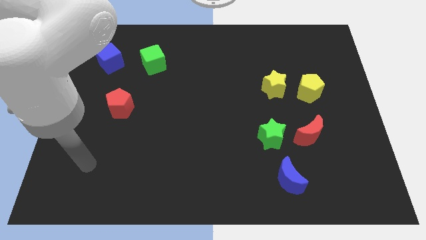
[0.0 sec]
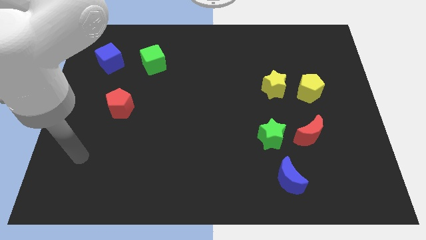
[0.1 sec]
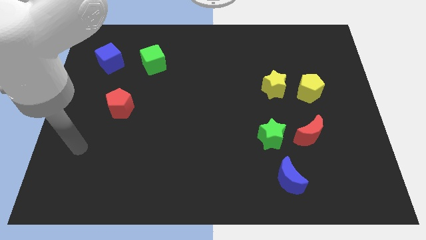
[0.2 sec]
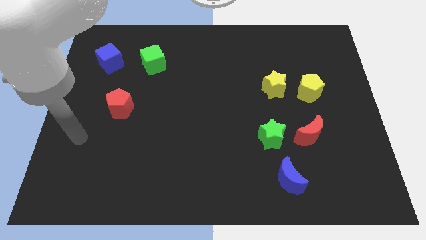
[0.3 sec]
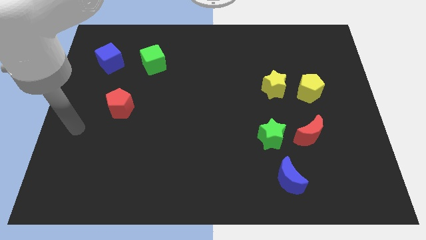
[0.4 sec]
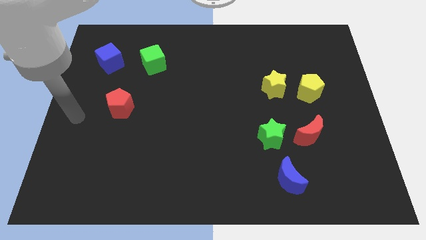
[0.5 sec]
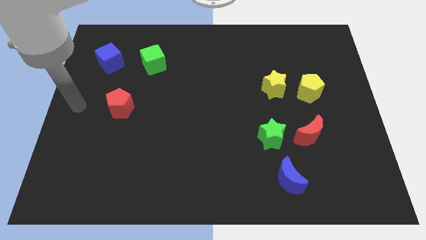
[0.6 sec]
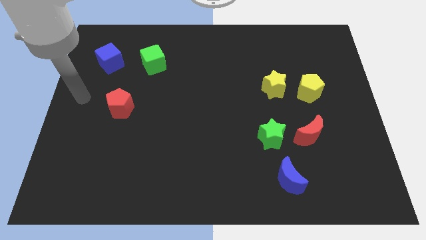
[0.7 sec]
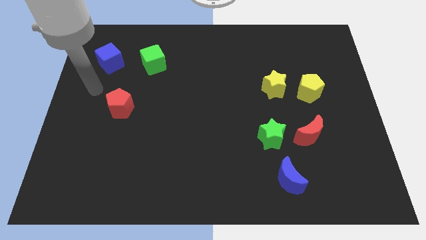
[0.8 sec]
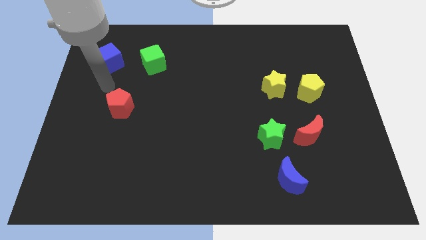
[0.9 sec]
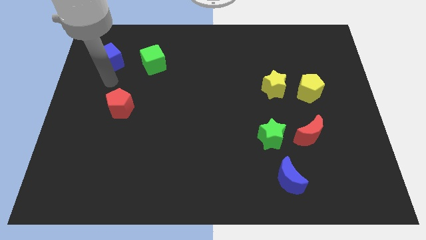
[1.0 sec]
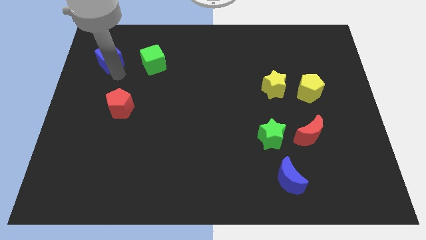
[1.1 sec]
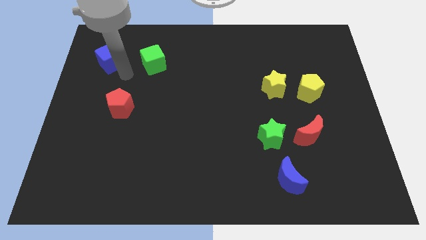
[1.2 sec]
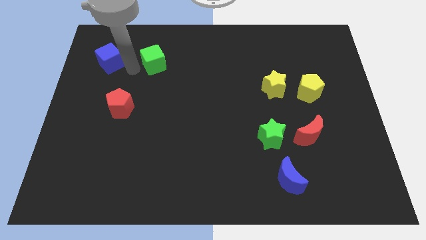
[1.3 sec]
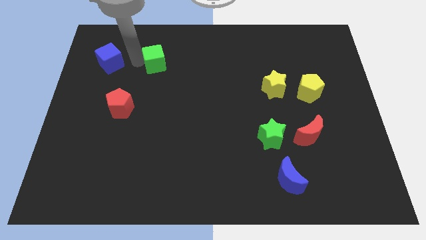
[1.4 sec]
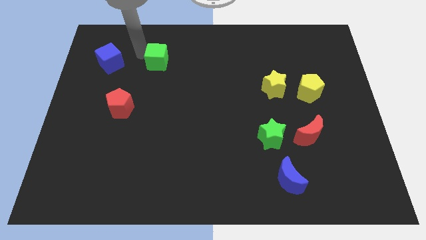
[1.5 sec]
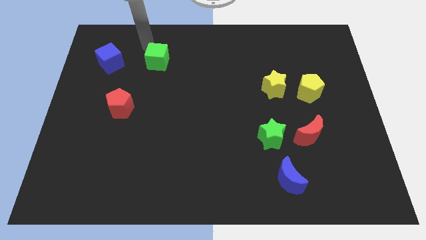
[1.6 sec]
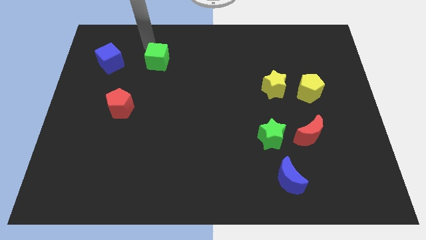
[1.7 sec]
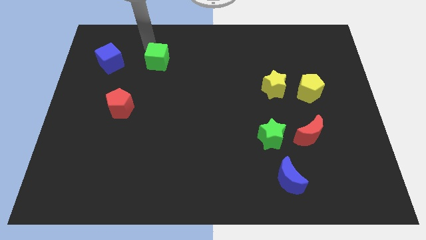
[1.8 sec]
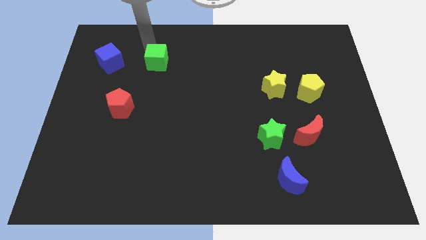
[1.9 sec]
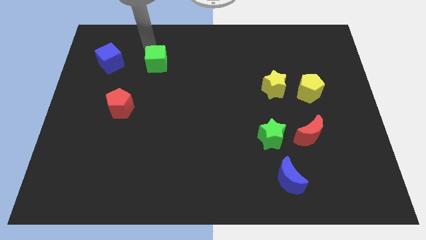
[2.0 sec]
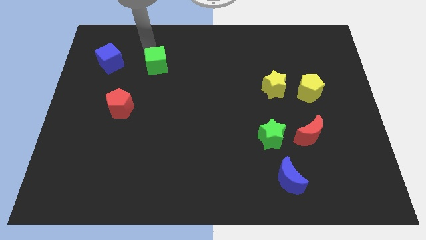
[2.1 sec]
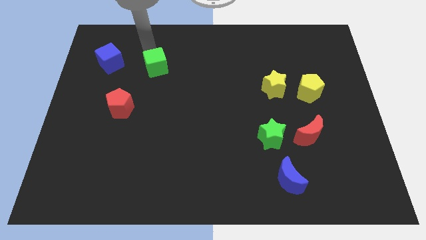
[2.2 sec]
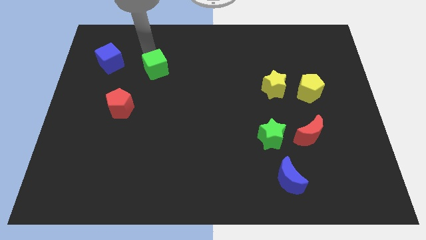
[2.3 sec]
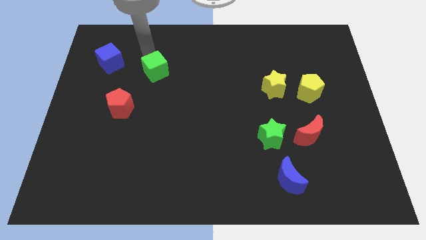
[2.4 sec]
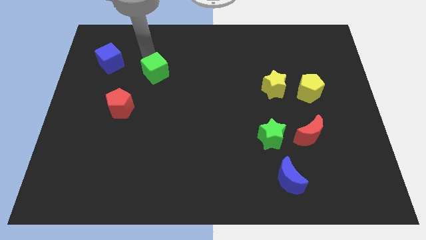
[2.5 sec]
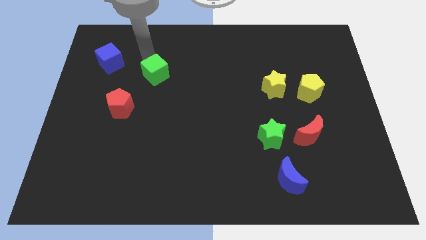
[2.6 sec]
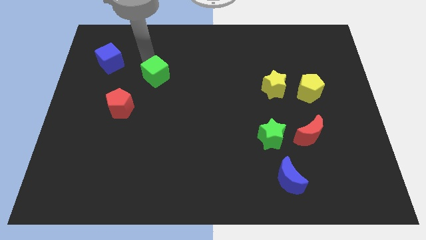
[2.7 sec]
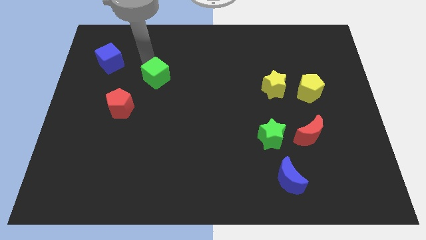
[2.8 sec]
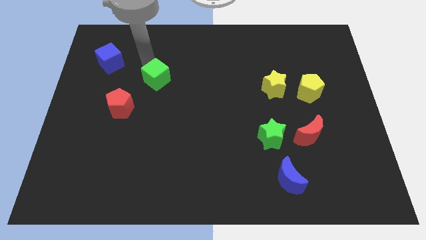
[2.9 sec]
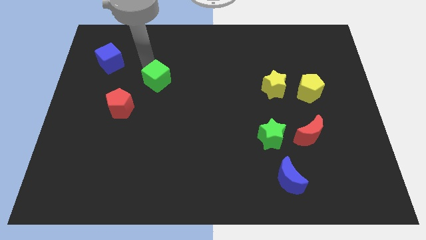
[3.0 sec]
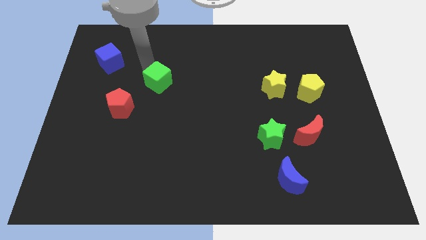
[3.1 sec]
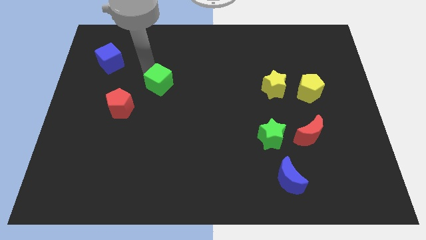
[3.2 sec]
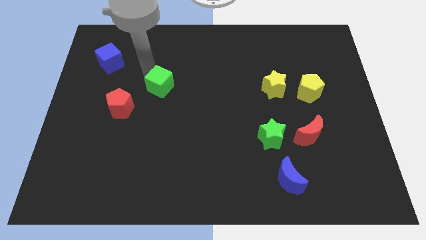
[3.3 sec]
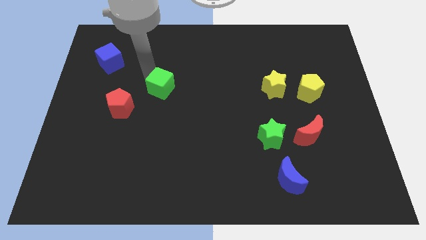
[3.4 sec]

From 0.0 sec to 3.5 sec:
move the green cube down and to the right slightly

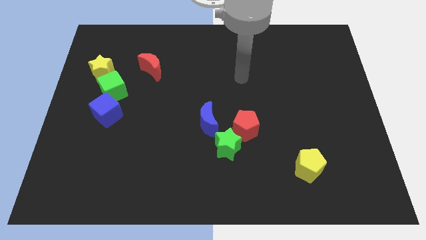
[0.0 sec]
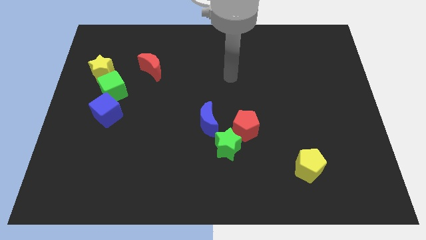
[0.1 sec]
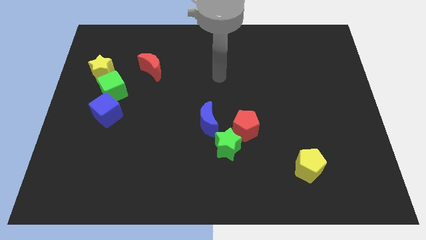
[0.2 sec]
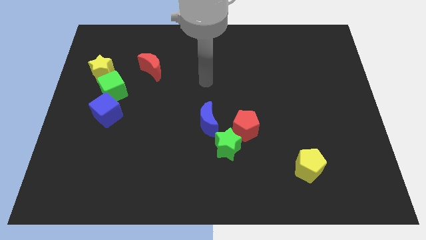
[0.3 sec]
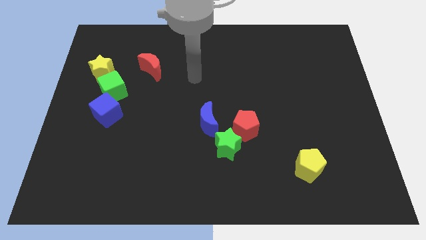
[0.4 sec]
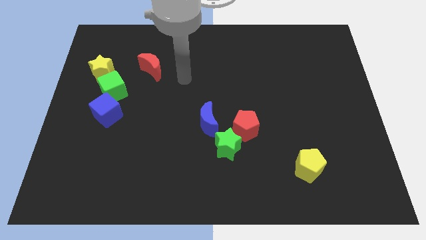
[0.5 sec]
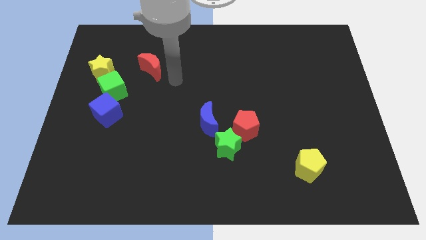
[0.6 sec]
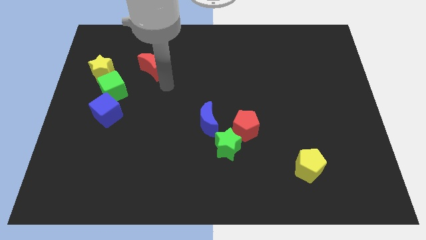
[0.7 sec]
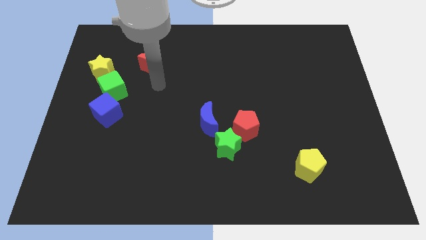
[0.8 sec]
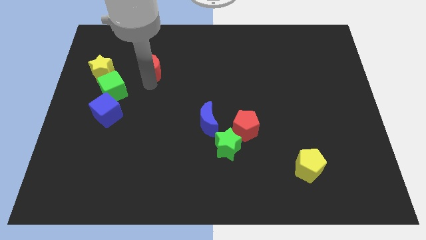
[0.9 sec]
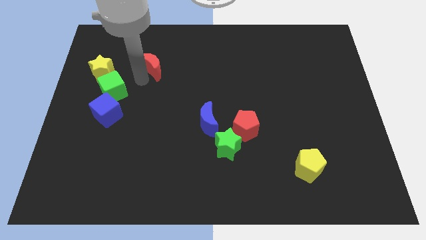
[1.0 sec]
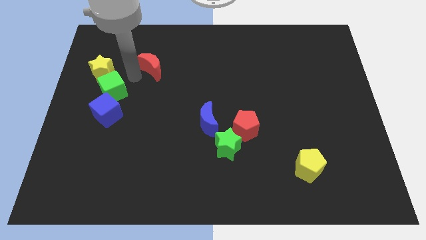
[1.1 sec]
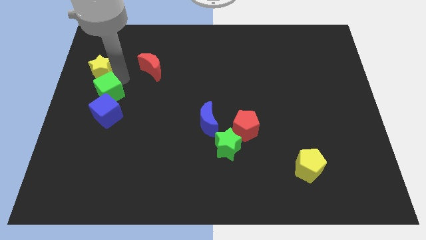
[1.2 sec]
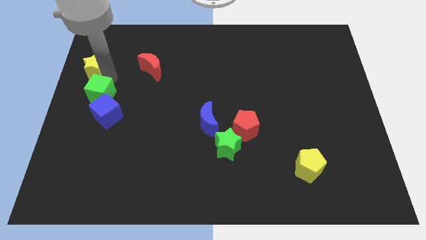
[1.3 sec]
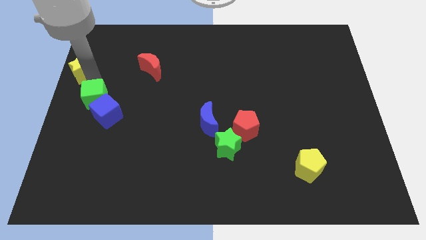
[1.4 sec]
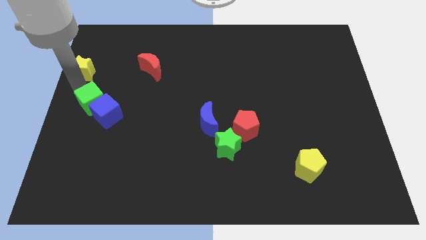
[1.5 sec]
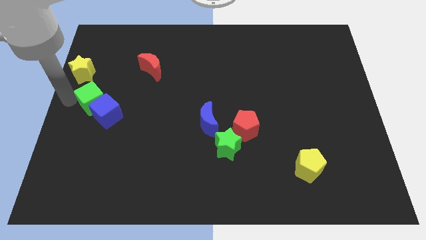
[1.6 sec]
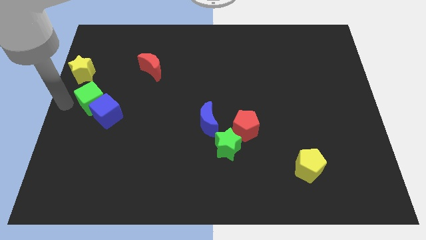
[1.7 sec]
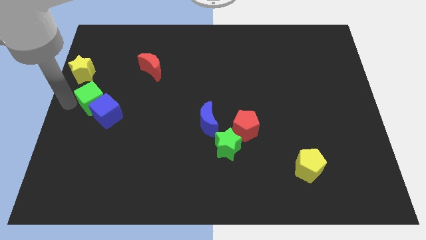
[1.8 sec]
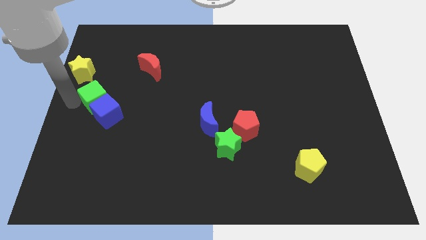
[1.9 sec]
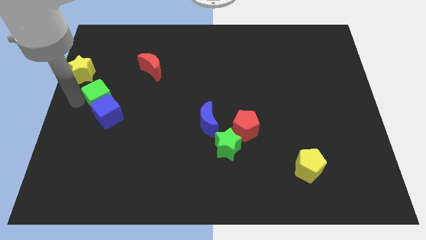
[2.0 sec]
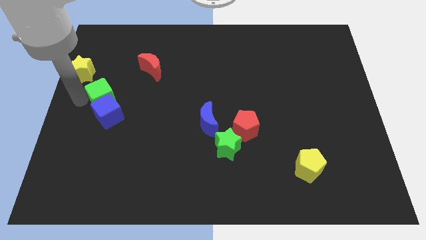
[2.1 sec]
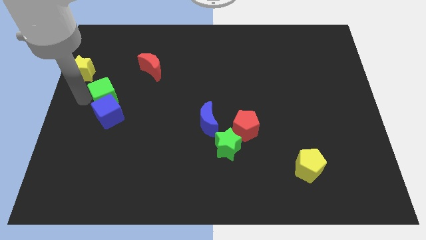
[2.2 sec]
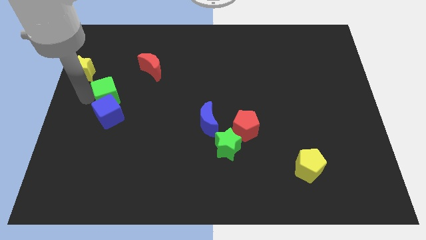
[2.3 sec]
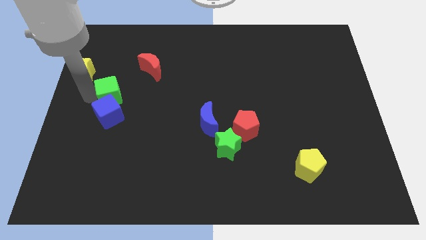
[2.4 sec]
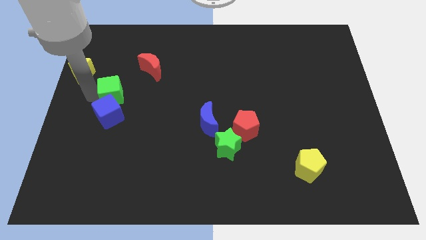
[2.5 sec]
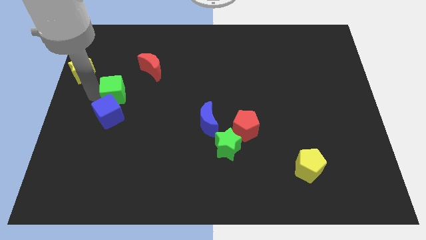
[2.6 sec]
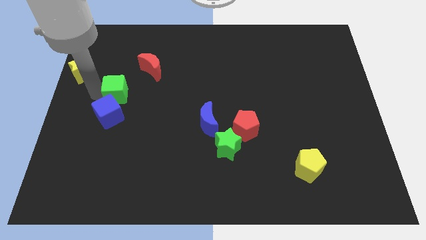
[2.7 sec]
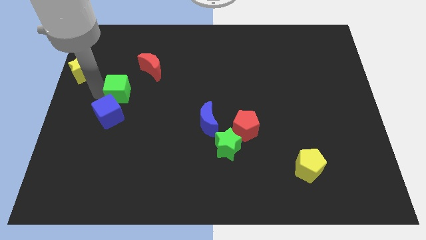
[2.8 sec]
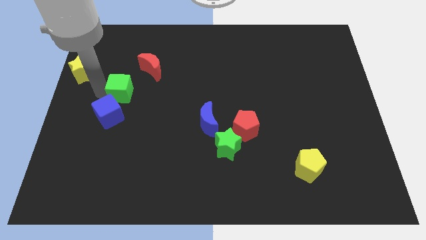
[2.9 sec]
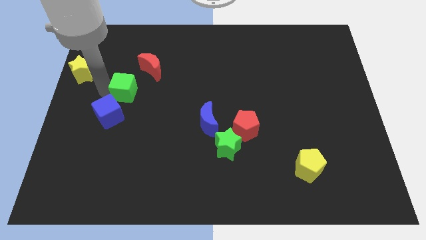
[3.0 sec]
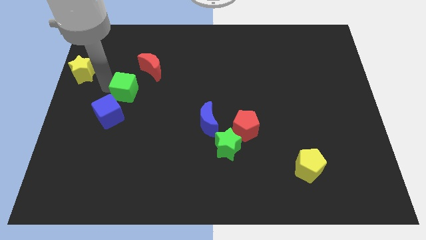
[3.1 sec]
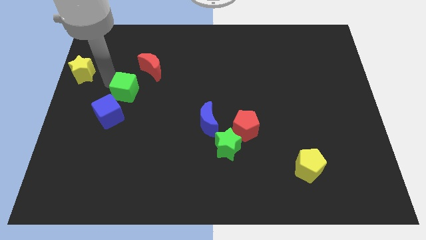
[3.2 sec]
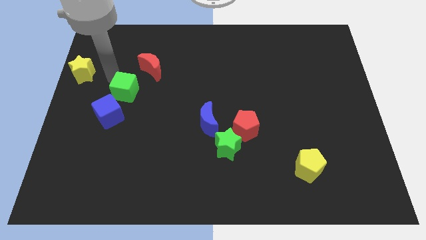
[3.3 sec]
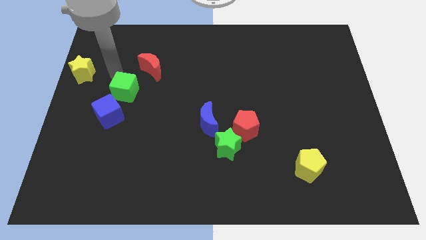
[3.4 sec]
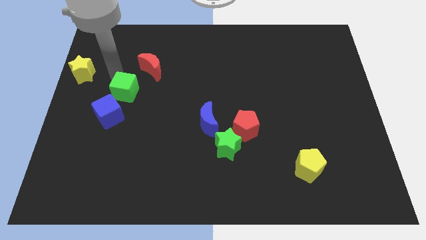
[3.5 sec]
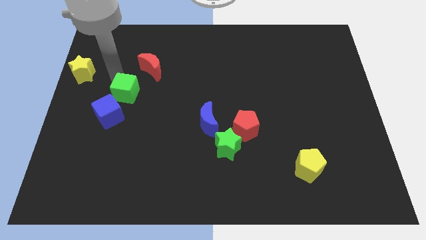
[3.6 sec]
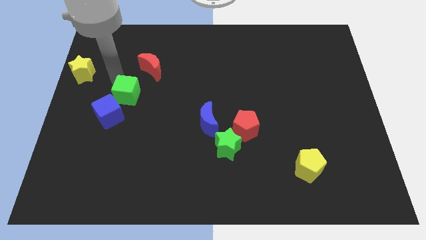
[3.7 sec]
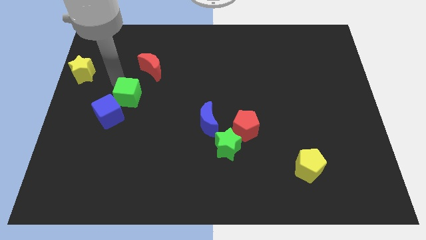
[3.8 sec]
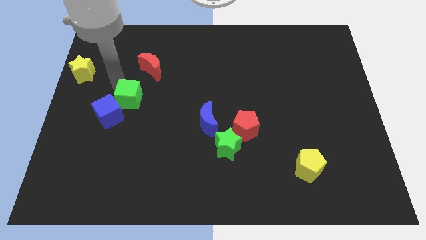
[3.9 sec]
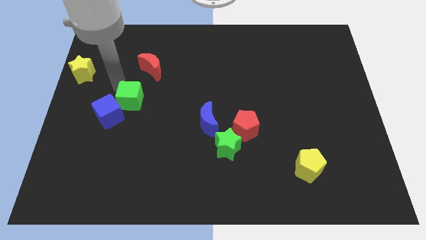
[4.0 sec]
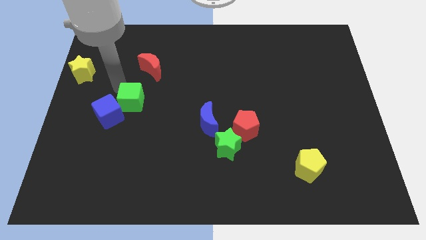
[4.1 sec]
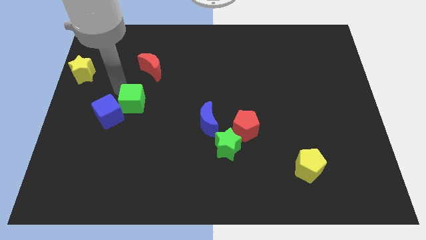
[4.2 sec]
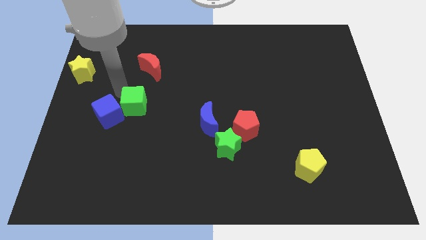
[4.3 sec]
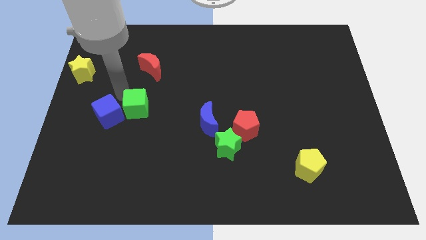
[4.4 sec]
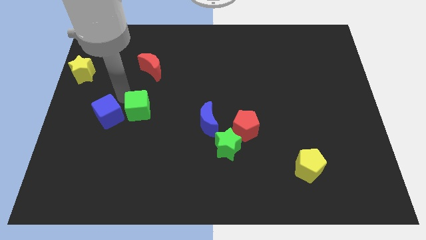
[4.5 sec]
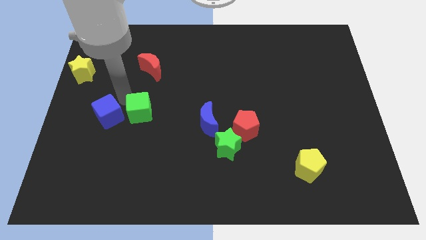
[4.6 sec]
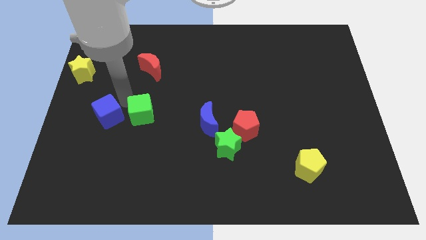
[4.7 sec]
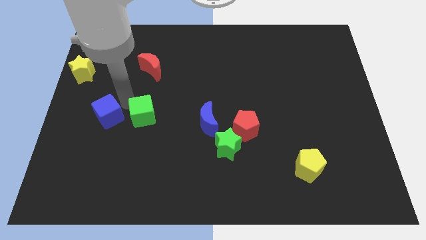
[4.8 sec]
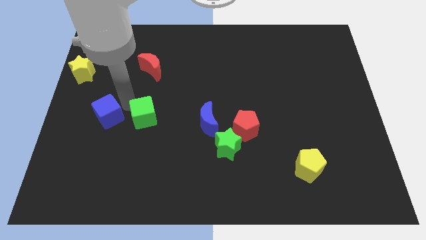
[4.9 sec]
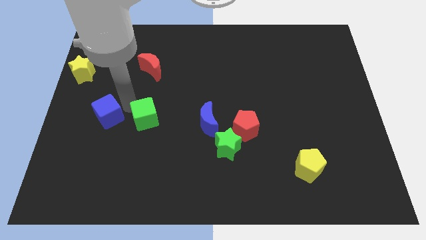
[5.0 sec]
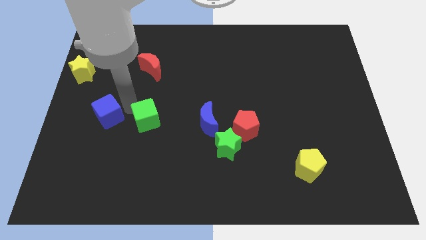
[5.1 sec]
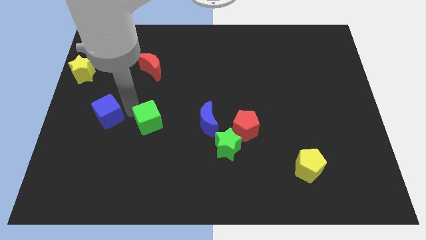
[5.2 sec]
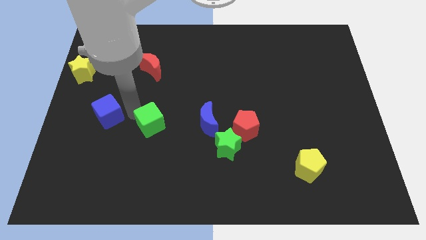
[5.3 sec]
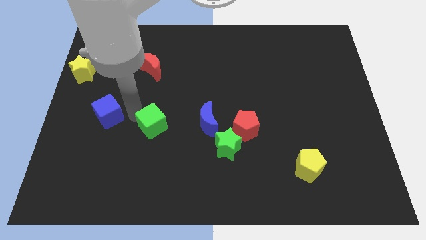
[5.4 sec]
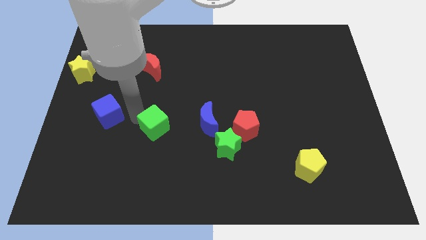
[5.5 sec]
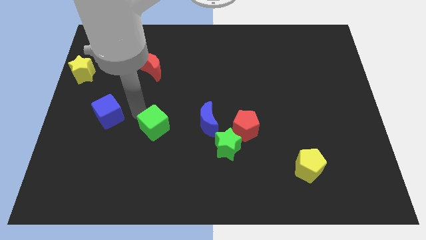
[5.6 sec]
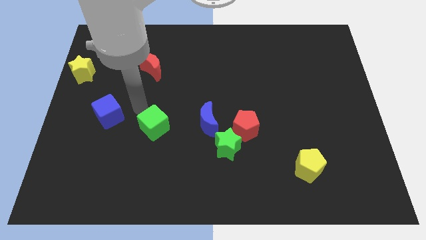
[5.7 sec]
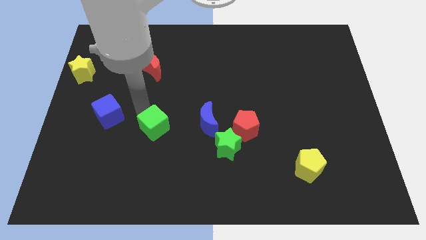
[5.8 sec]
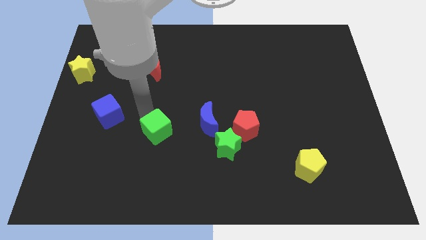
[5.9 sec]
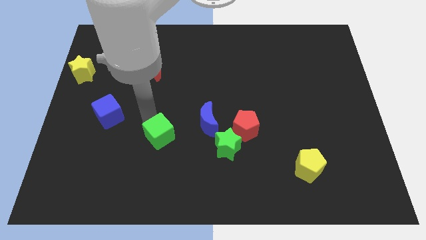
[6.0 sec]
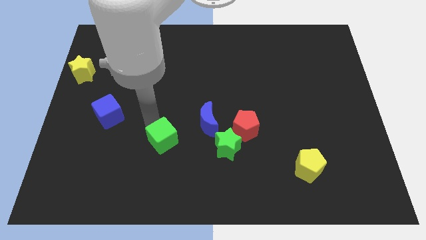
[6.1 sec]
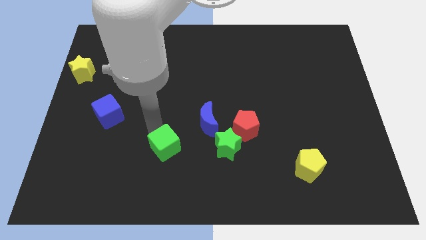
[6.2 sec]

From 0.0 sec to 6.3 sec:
slide the green cube down and right diagonally
